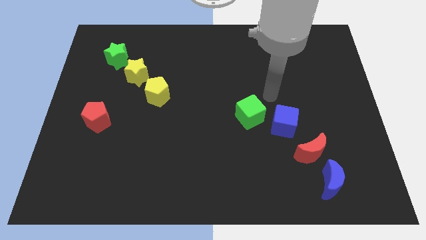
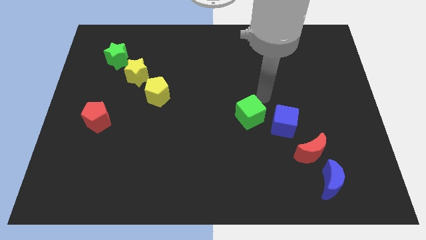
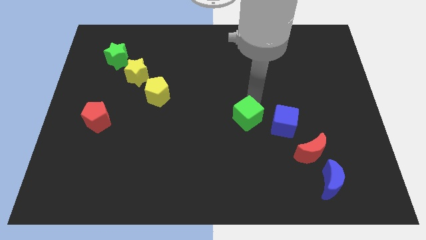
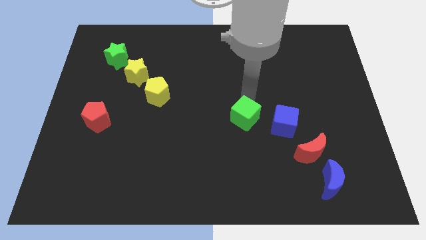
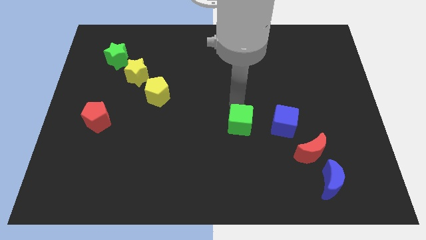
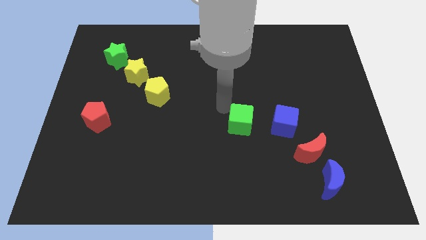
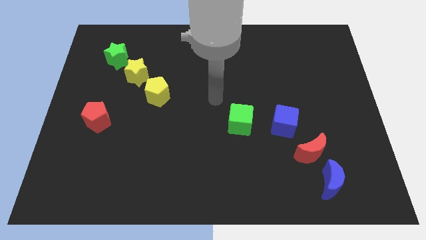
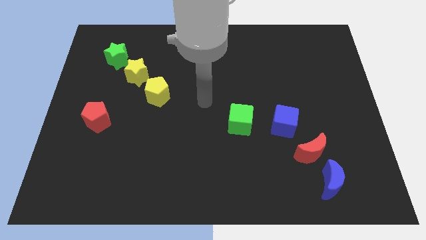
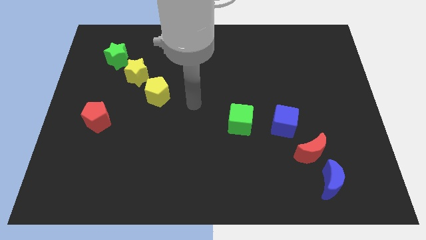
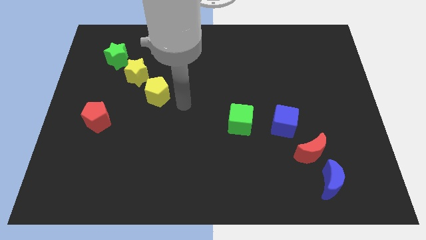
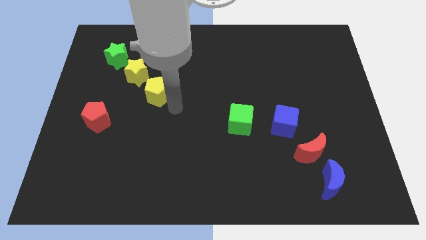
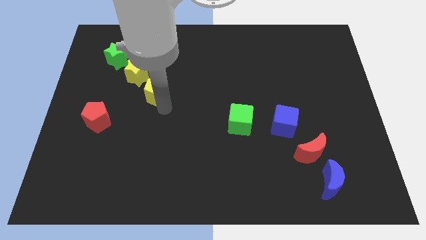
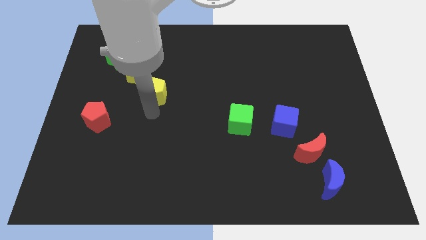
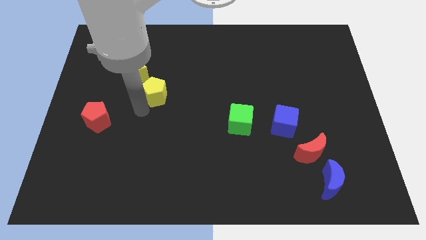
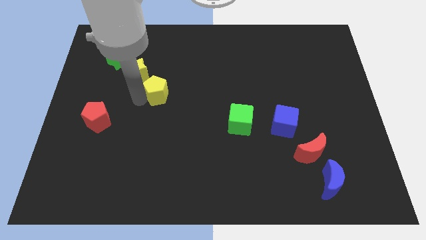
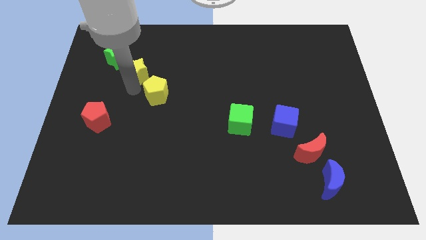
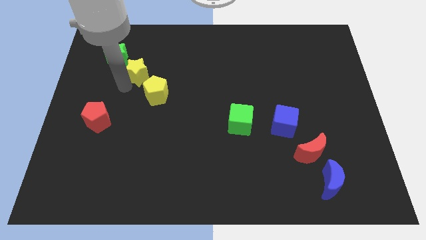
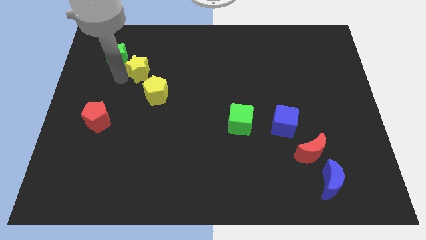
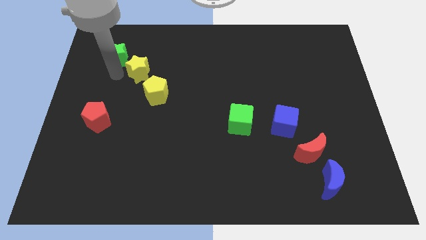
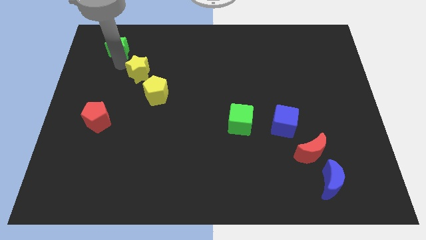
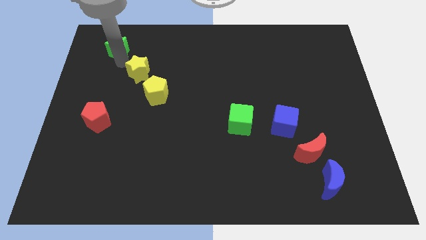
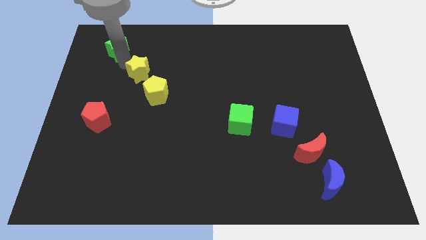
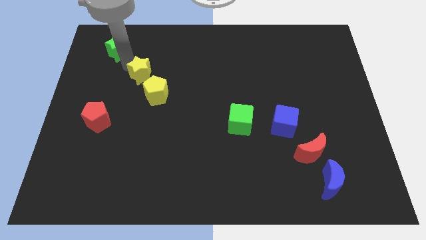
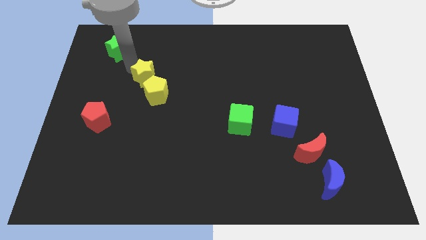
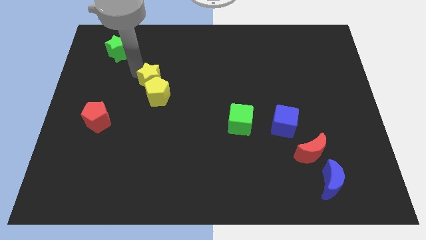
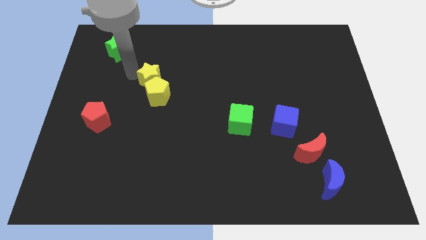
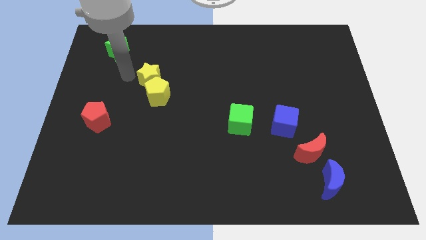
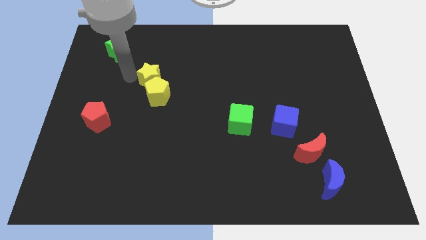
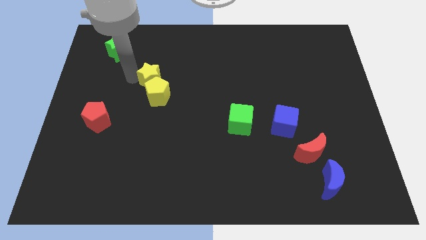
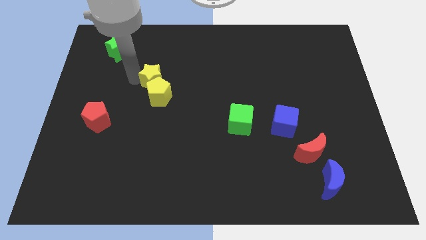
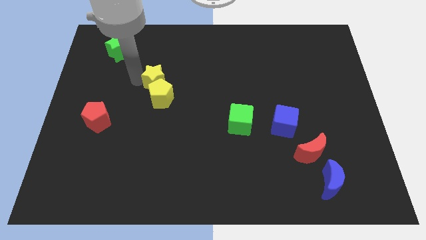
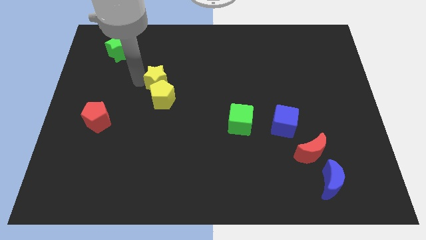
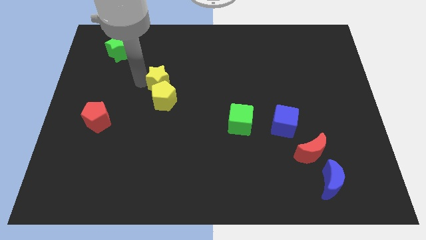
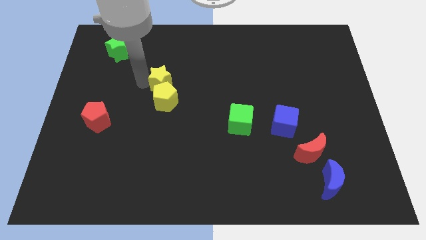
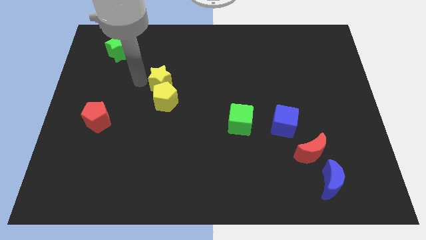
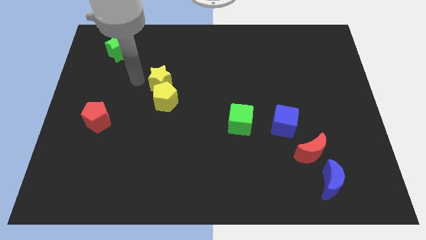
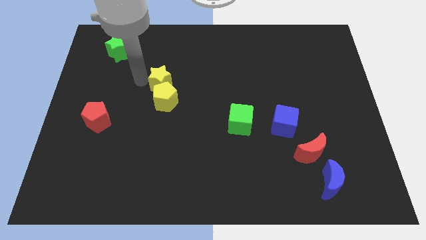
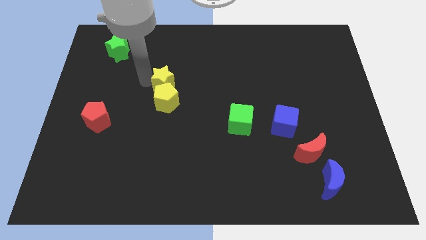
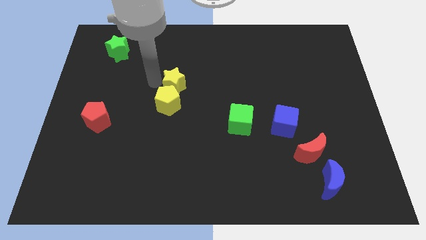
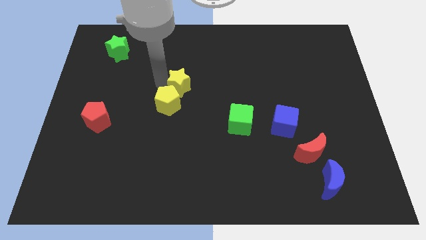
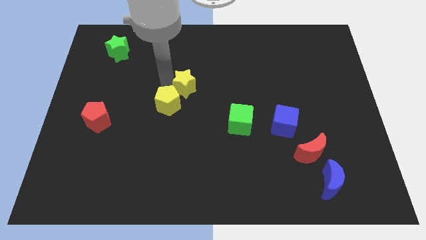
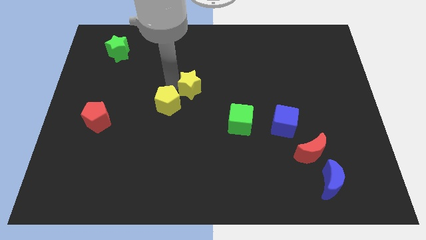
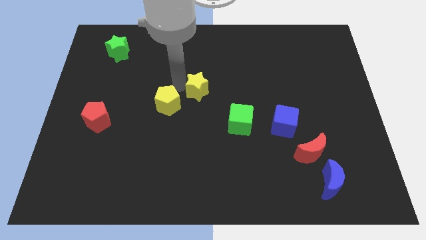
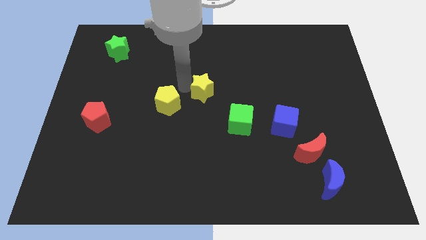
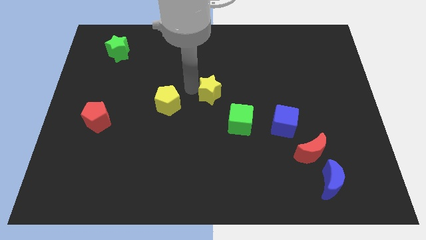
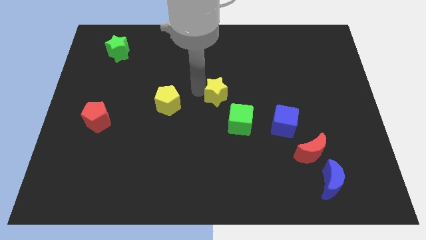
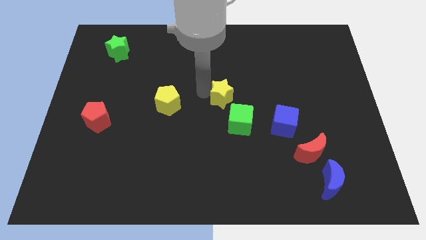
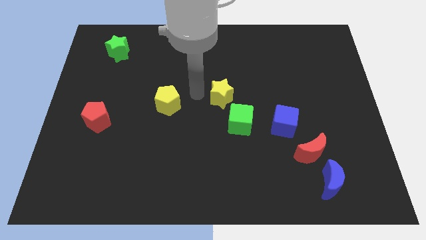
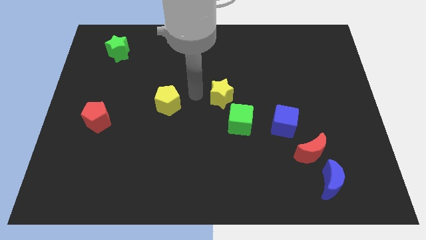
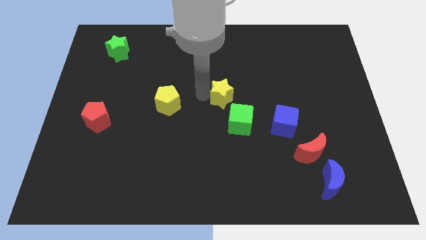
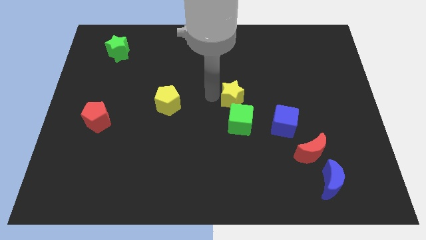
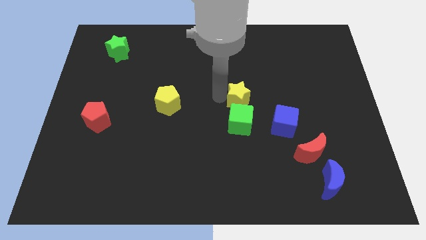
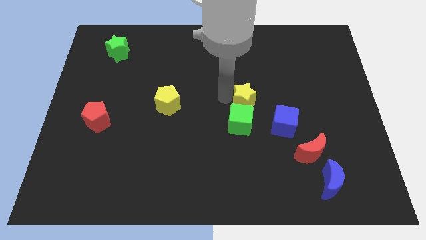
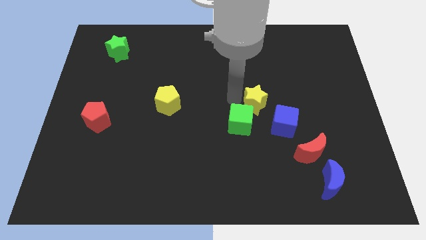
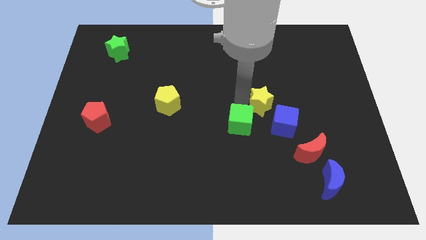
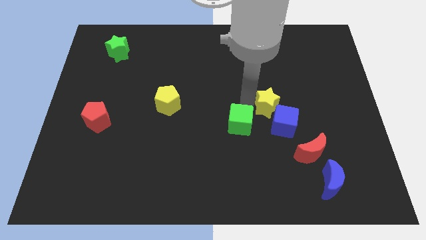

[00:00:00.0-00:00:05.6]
push the yellow star just right of the green cube

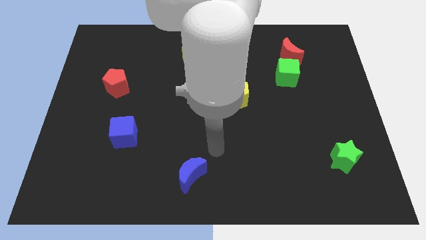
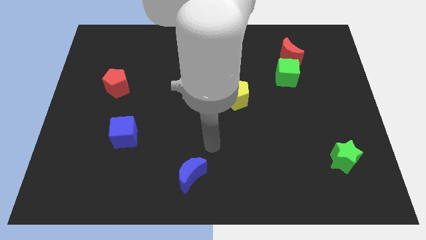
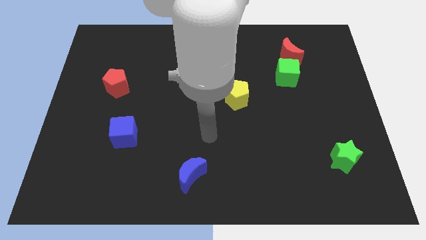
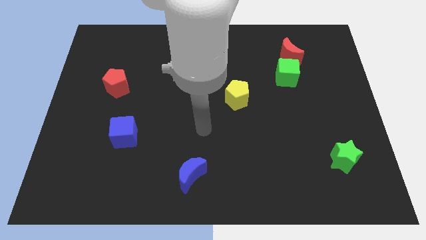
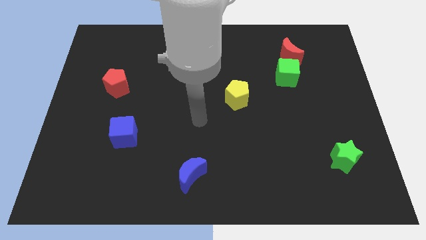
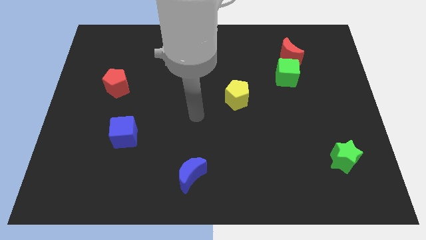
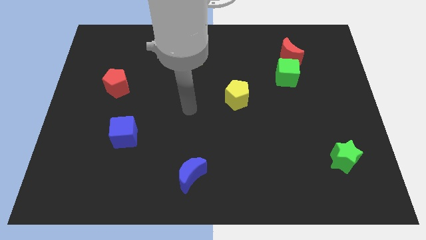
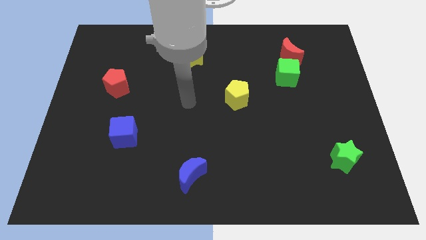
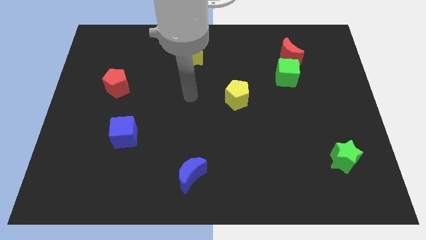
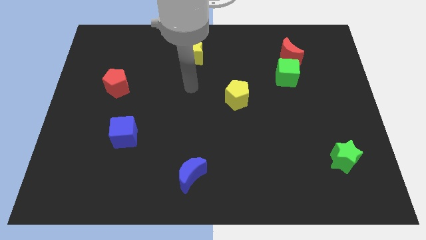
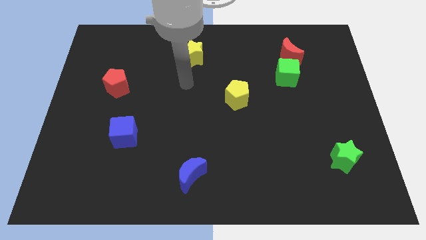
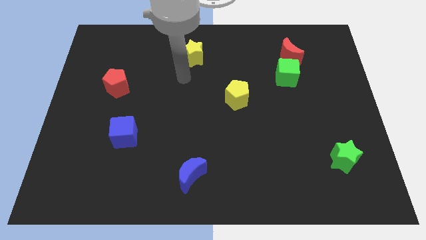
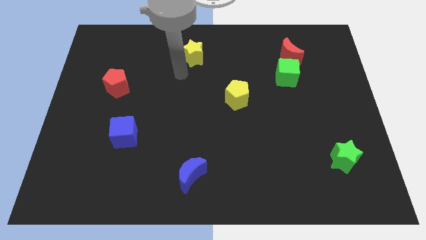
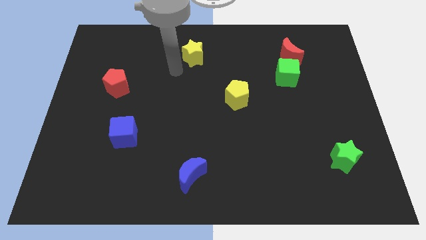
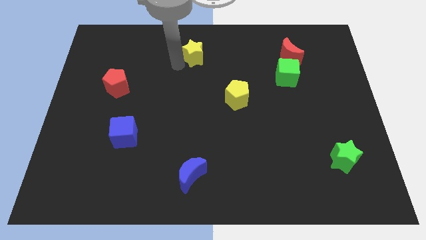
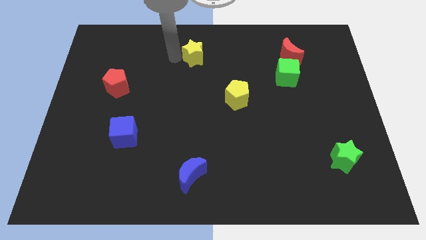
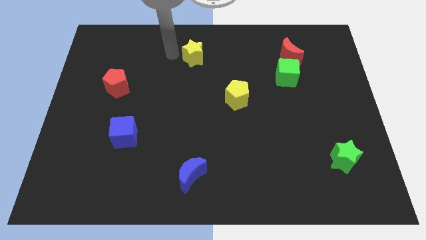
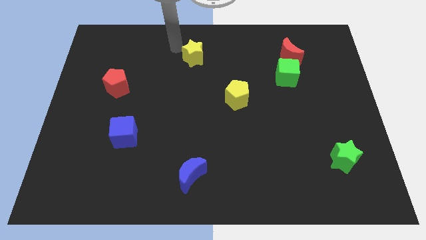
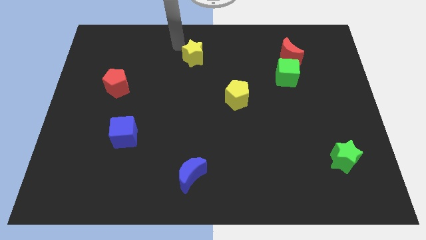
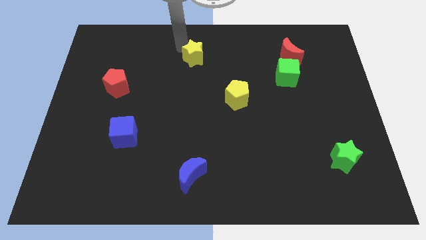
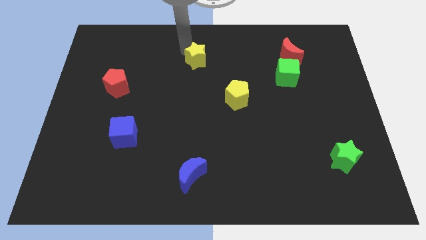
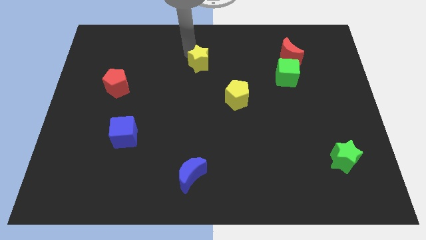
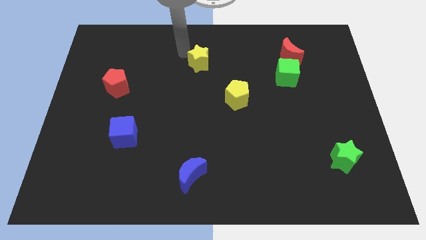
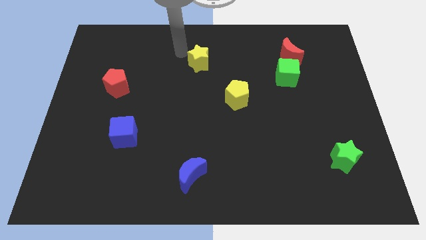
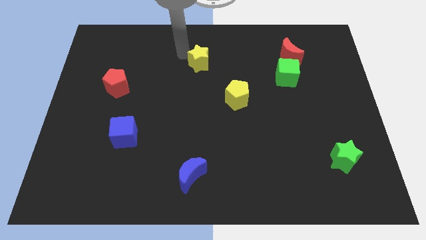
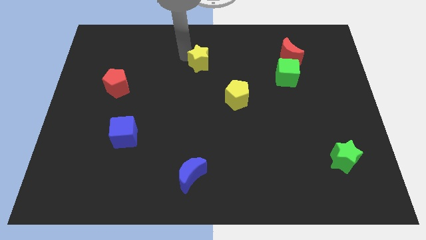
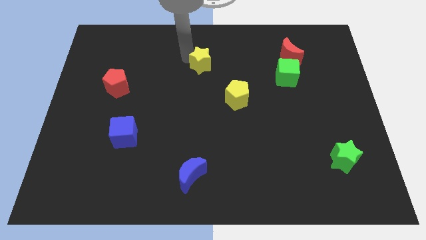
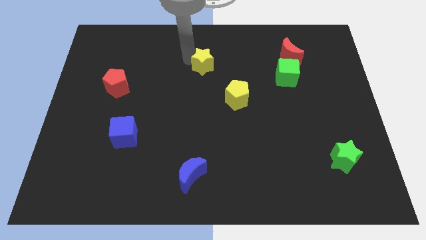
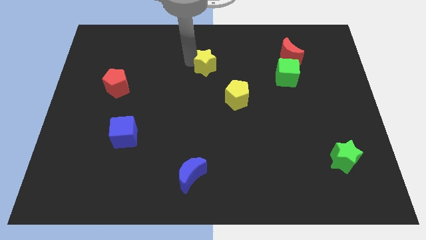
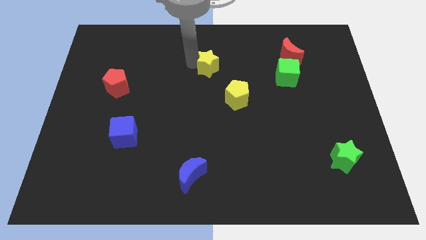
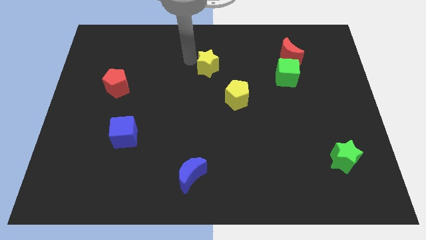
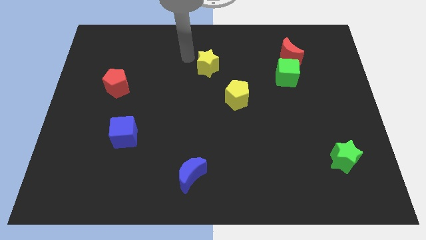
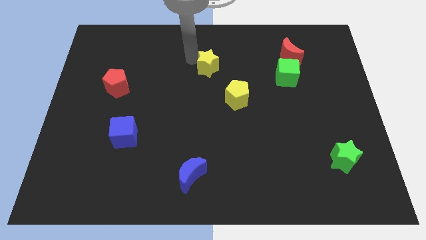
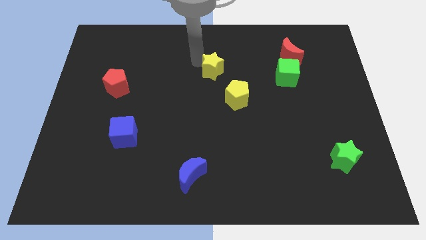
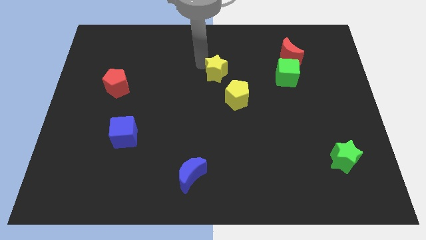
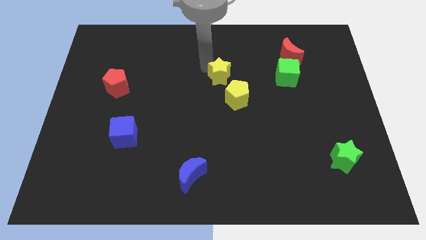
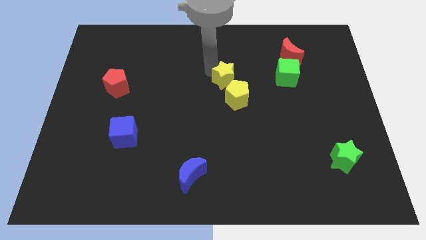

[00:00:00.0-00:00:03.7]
push the yellow star to the left of the green cube
